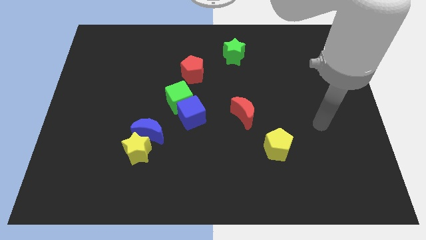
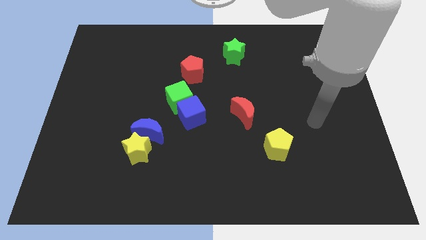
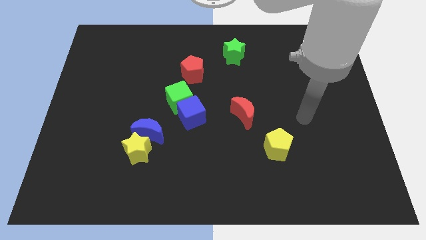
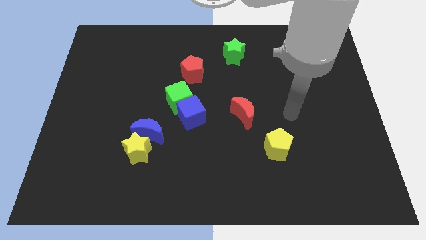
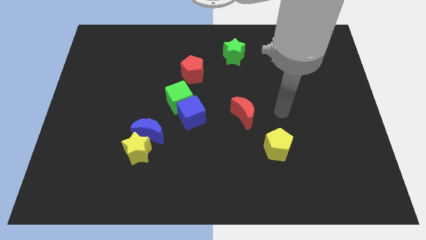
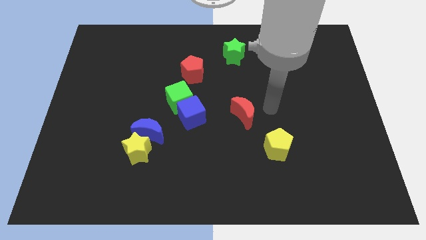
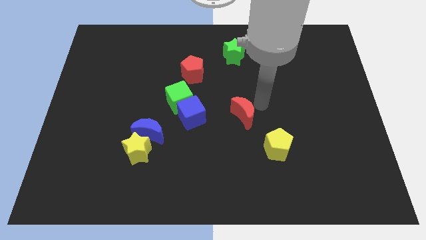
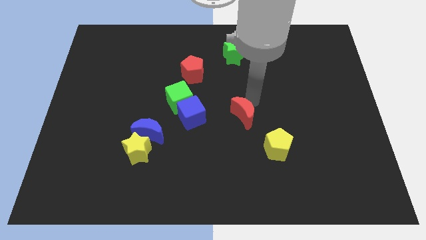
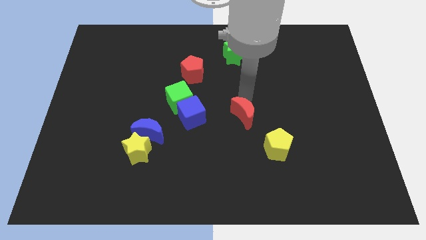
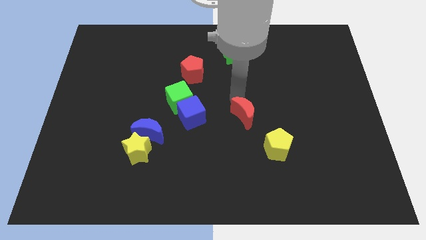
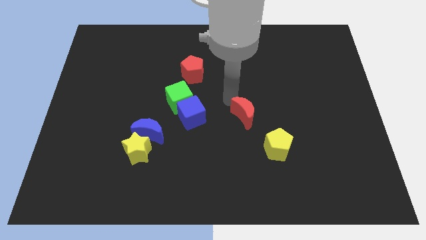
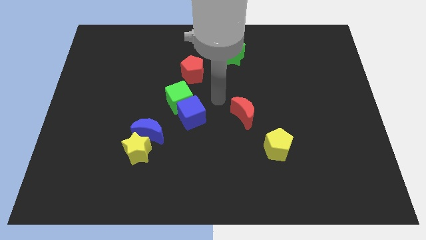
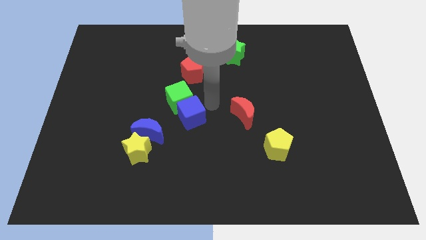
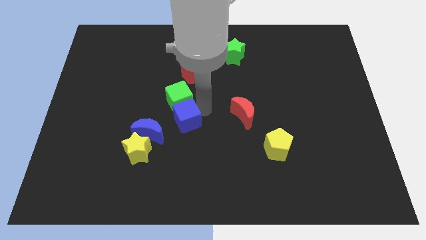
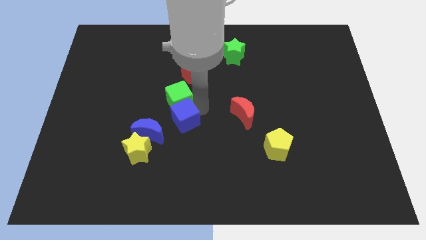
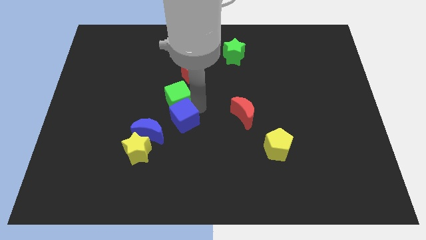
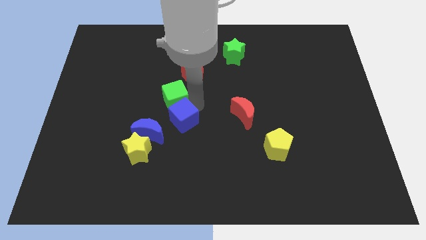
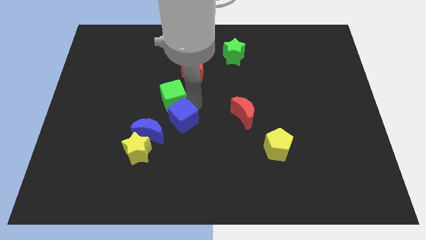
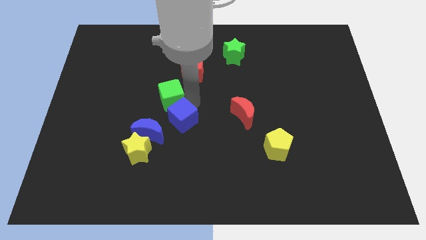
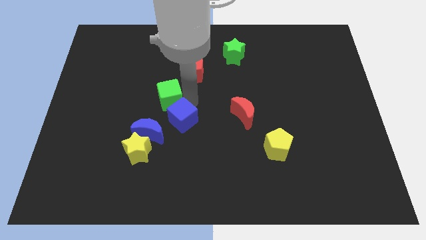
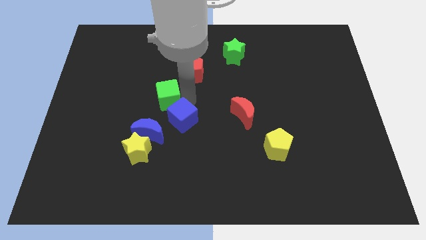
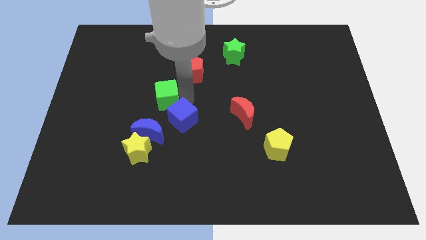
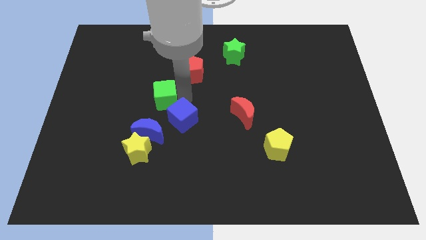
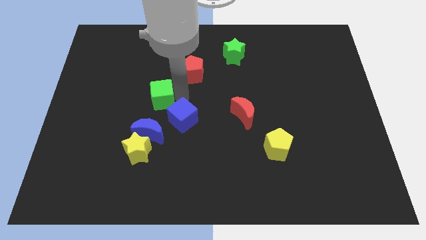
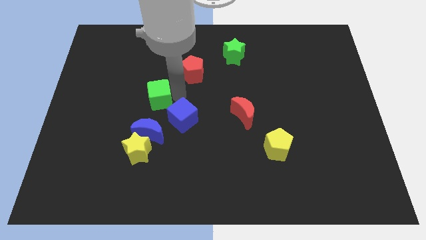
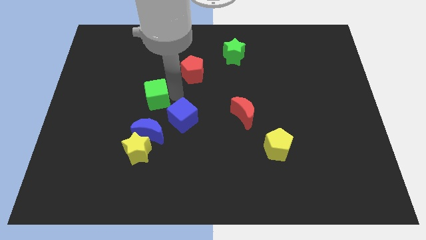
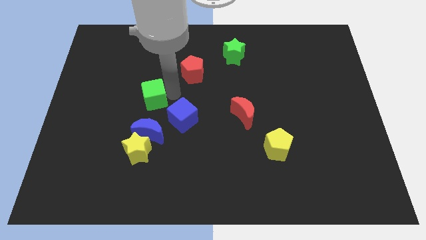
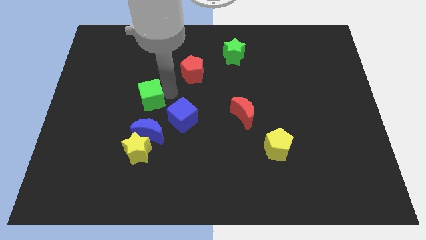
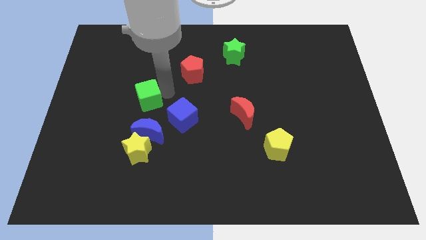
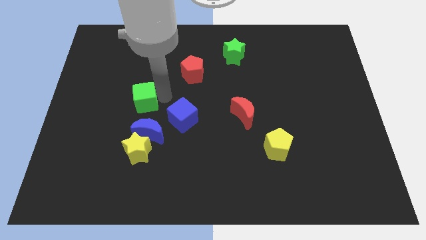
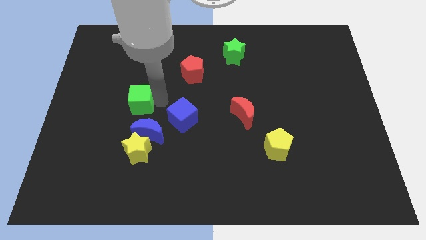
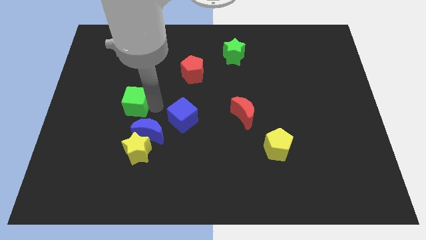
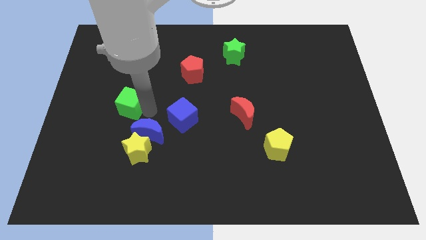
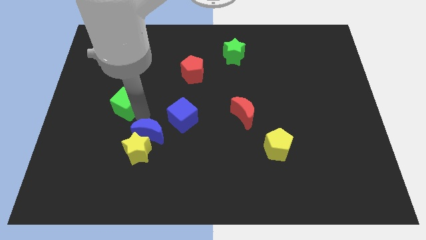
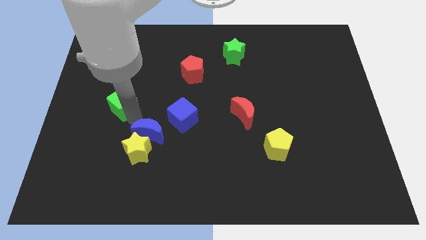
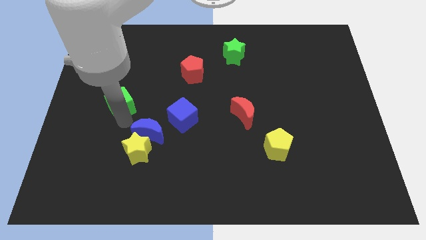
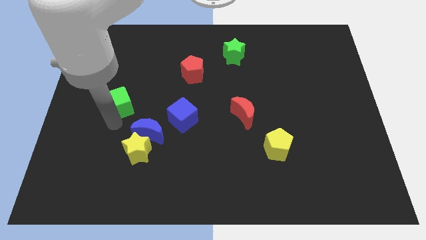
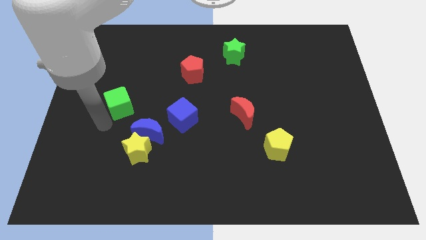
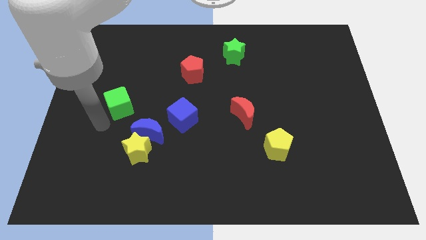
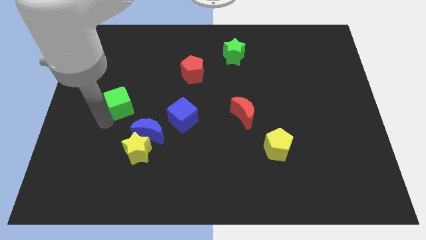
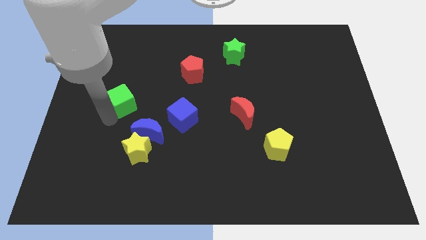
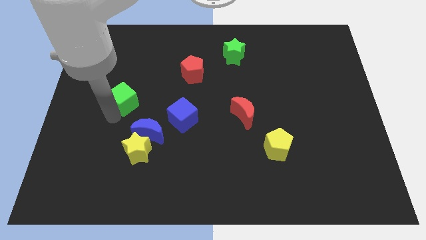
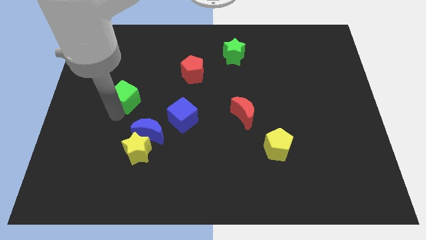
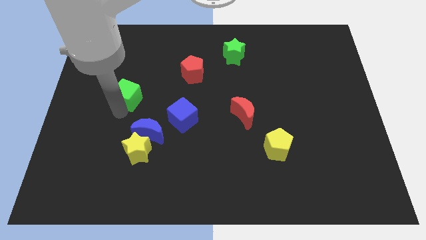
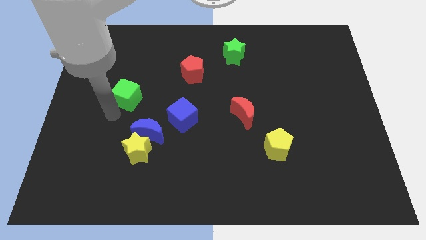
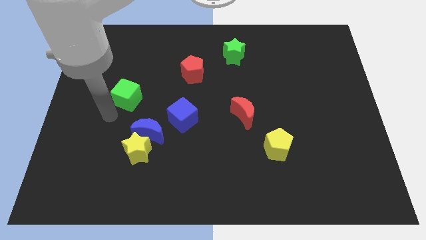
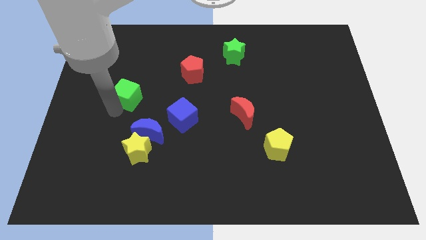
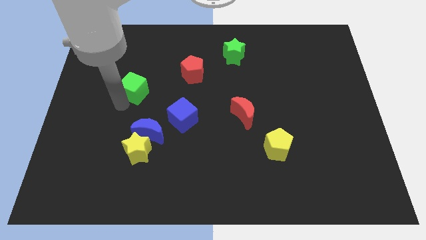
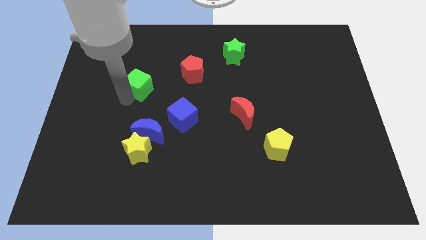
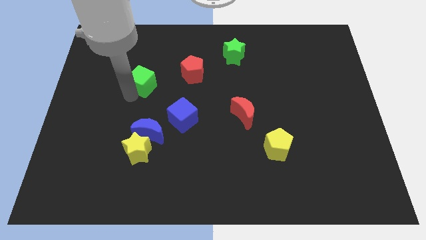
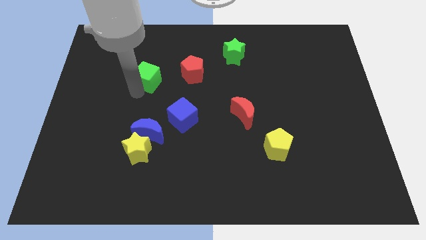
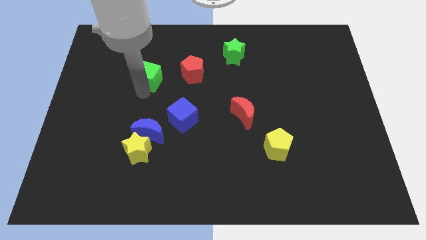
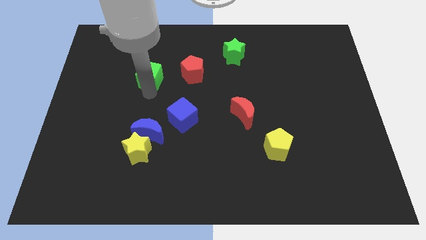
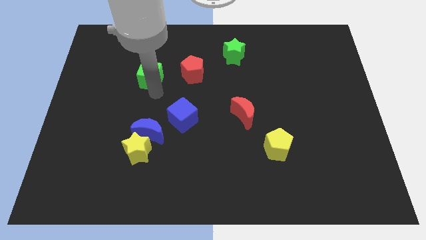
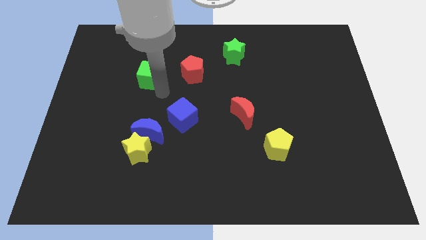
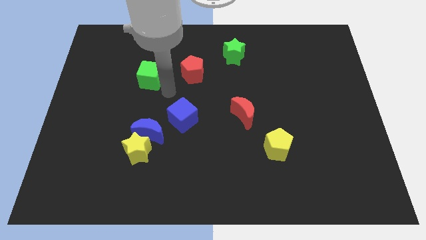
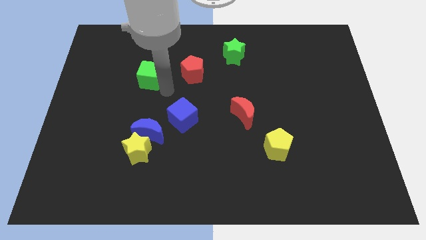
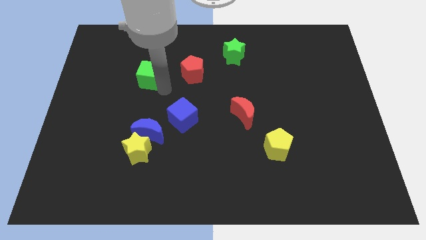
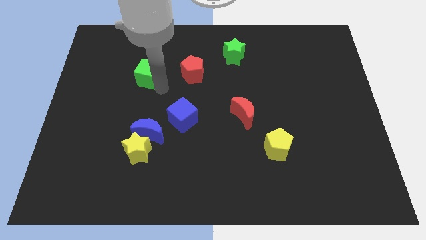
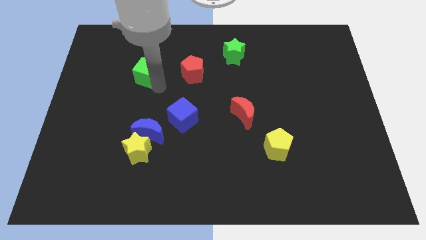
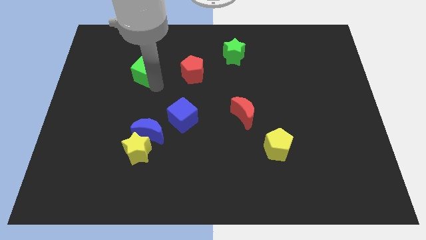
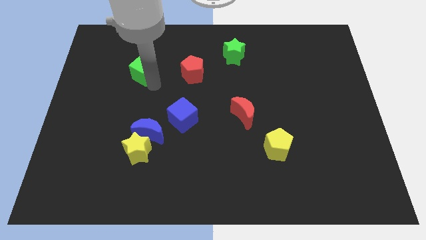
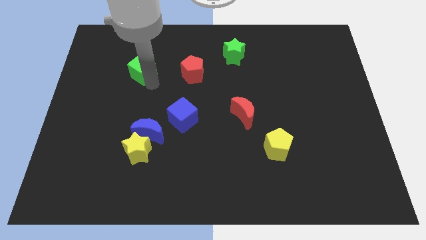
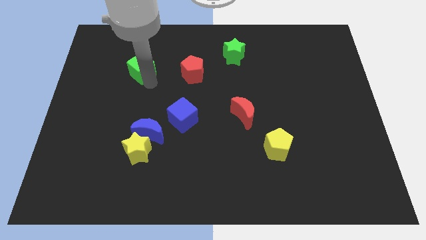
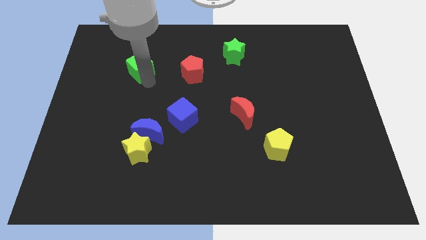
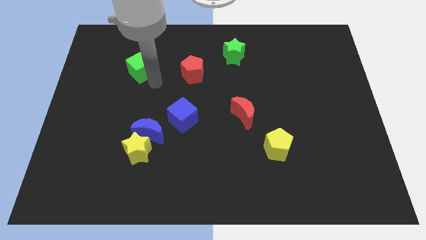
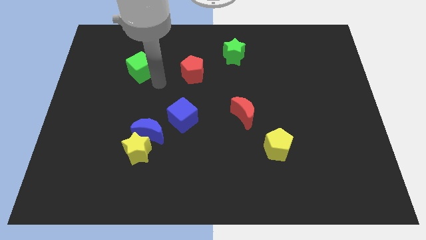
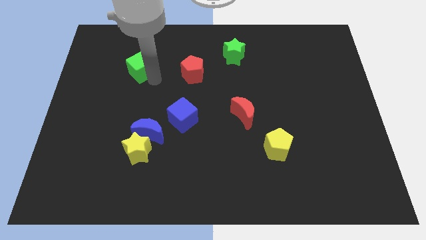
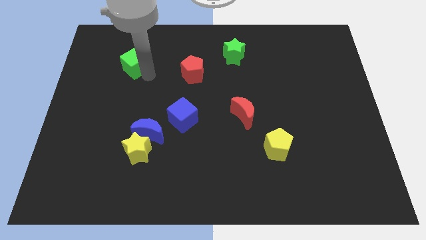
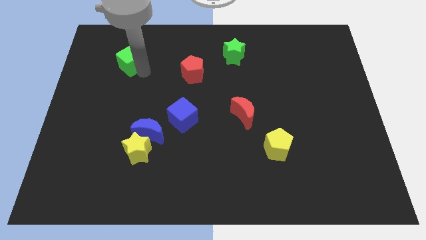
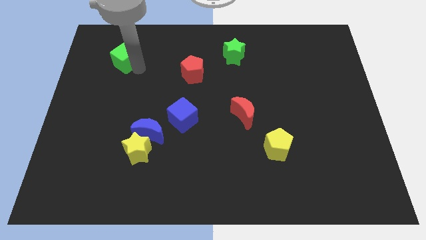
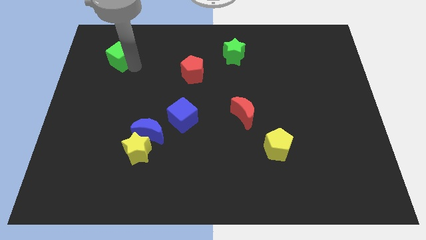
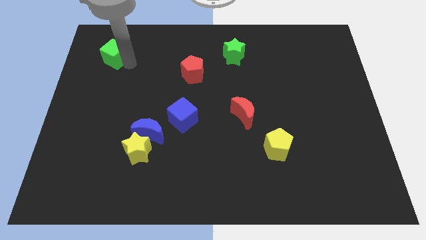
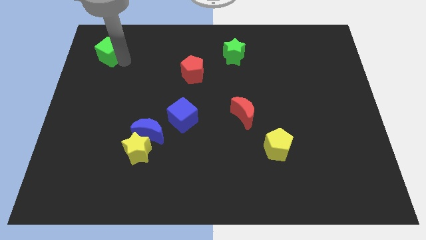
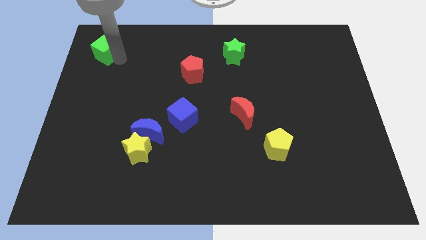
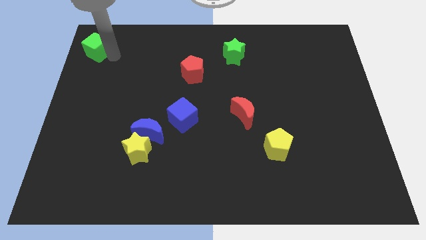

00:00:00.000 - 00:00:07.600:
move the green cube to the top left
